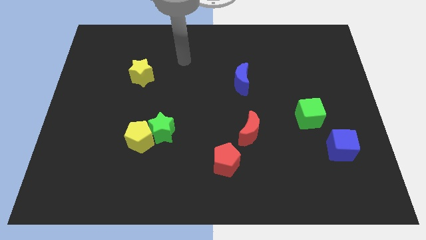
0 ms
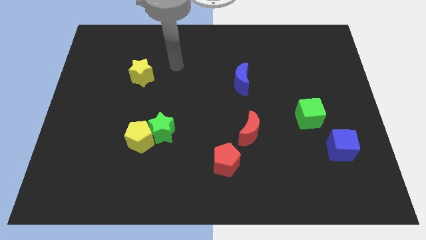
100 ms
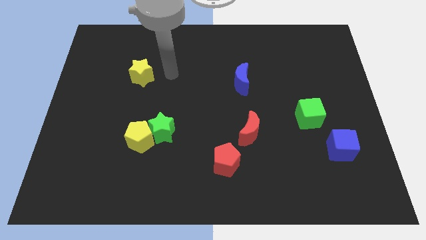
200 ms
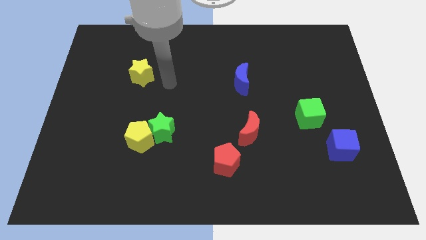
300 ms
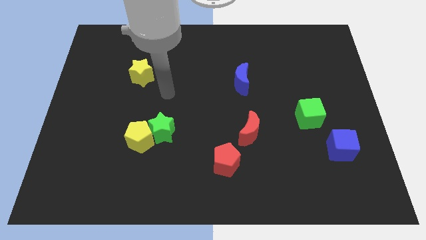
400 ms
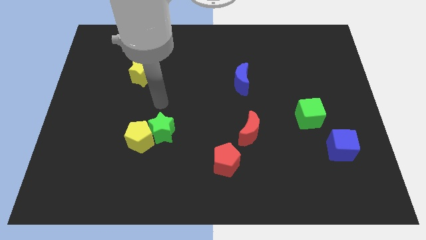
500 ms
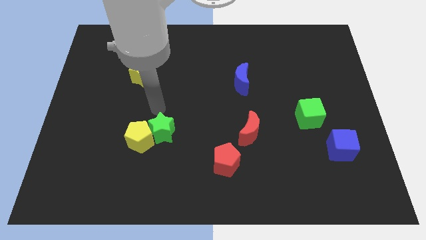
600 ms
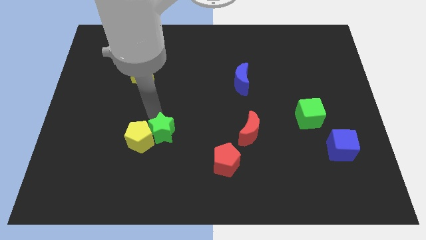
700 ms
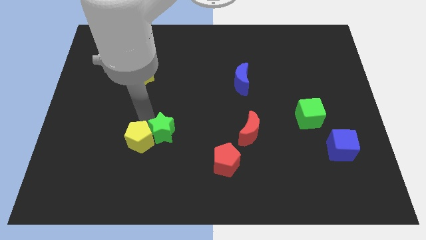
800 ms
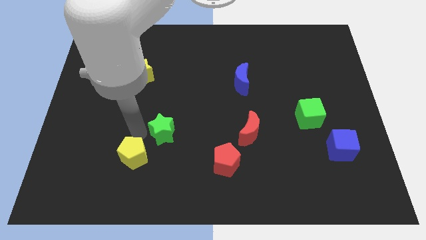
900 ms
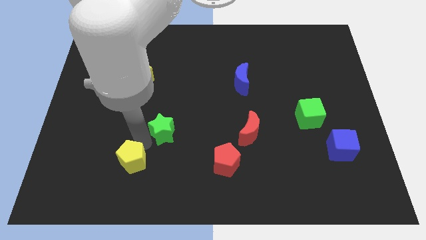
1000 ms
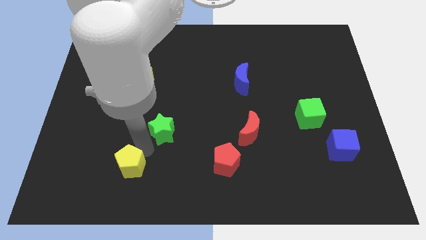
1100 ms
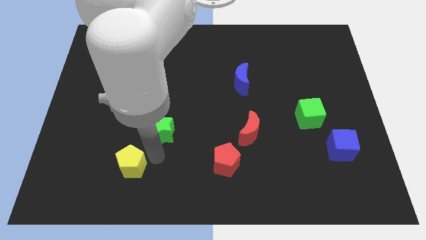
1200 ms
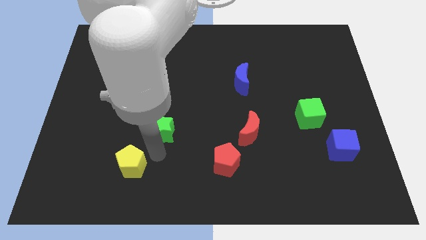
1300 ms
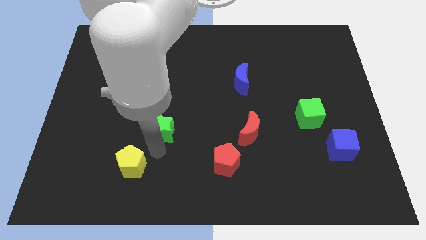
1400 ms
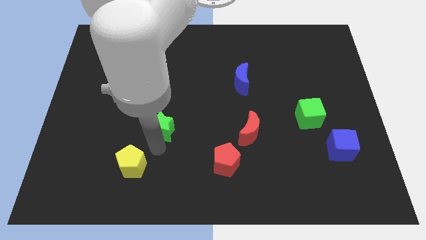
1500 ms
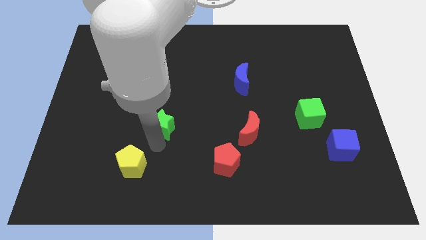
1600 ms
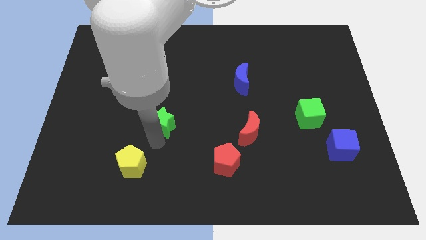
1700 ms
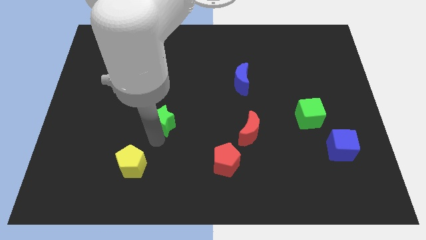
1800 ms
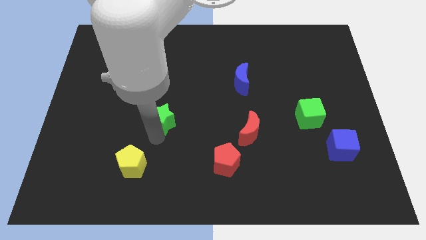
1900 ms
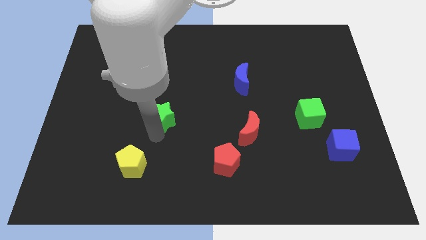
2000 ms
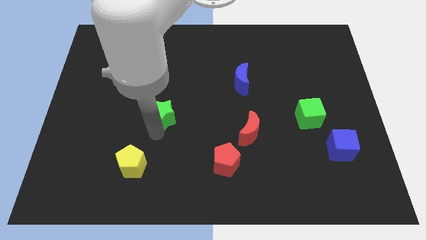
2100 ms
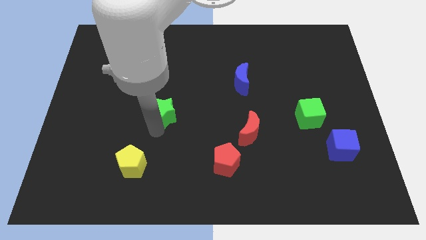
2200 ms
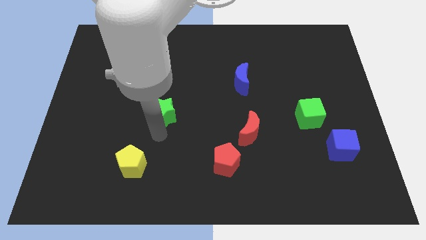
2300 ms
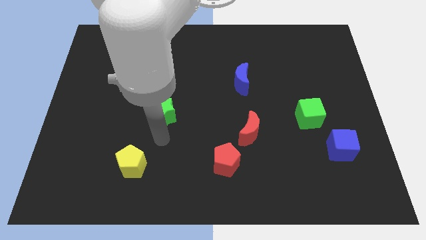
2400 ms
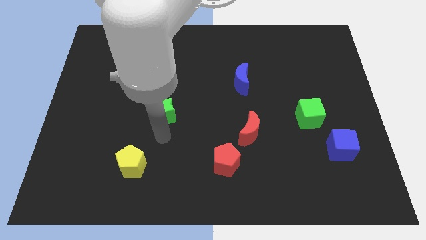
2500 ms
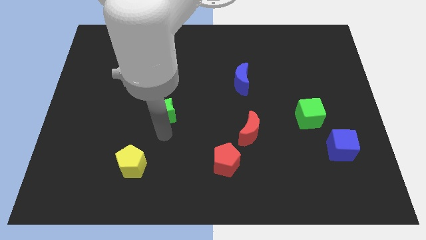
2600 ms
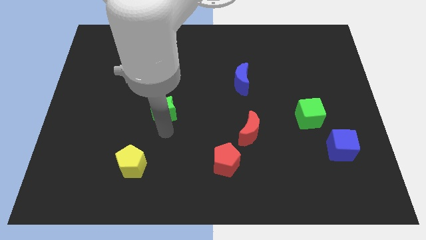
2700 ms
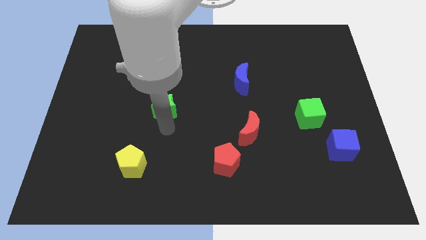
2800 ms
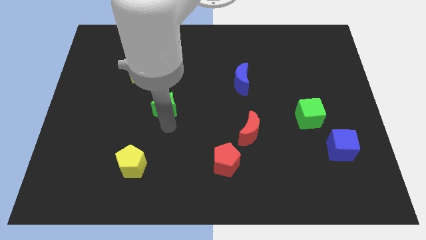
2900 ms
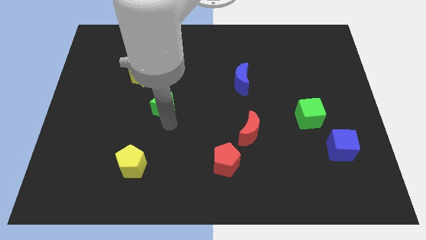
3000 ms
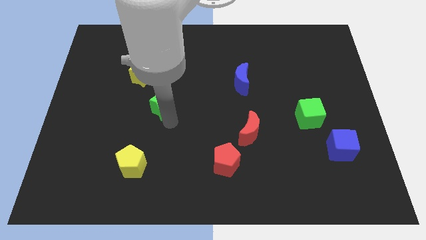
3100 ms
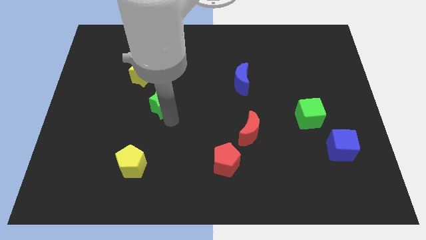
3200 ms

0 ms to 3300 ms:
push the green star up a little

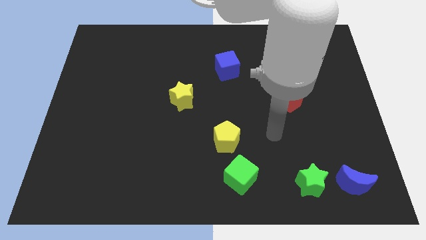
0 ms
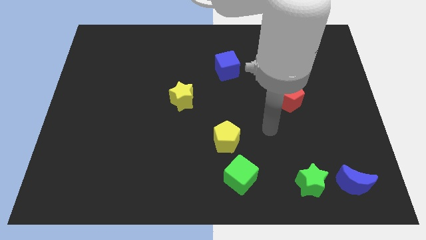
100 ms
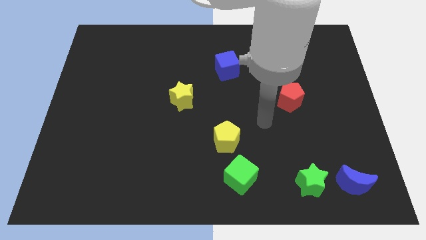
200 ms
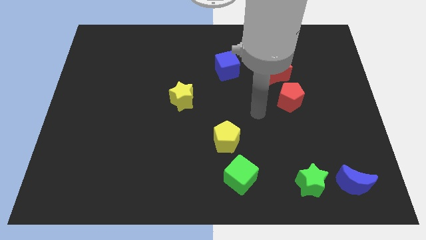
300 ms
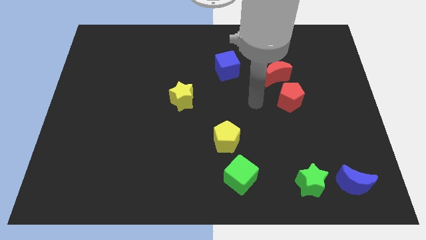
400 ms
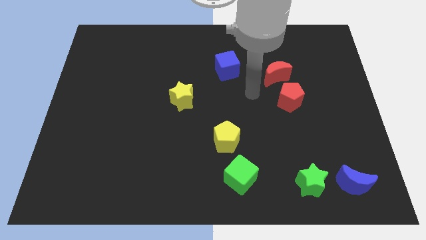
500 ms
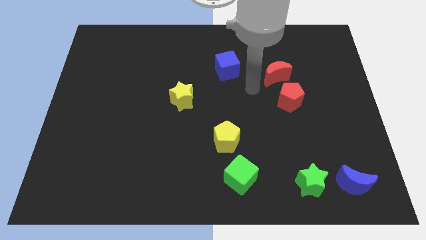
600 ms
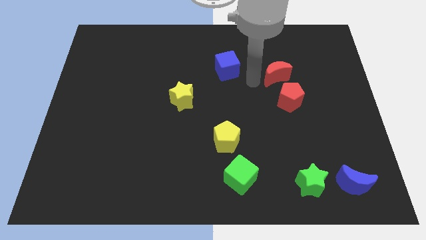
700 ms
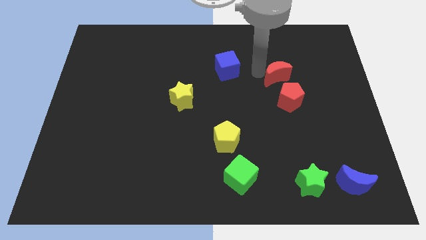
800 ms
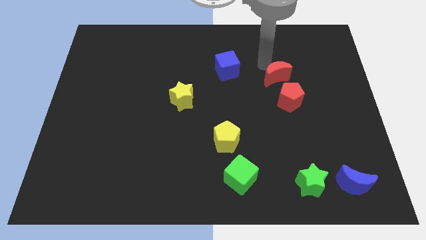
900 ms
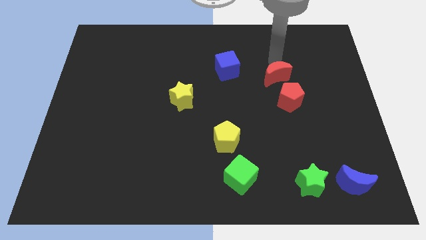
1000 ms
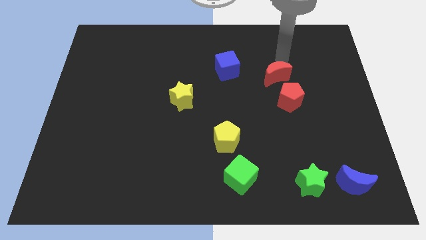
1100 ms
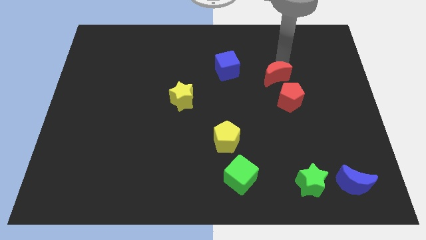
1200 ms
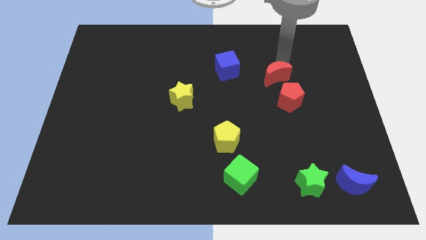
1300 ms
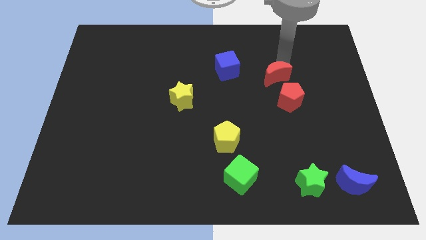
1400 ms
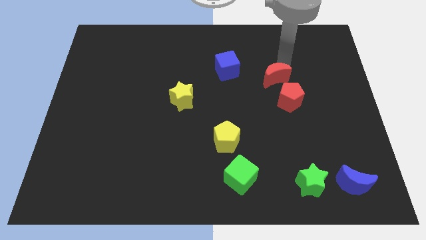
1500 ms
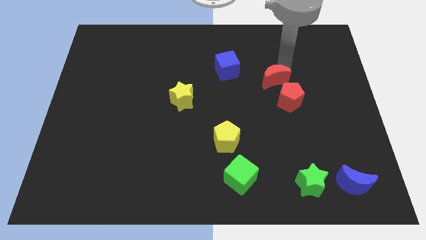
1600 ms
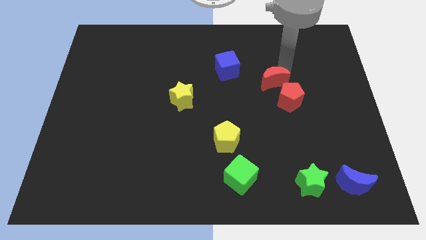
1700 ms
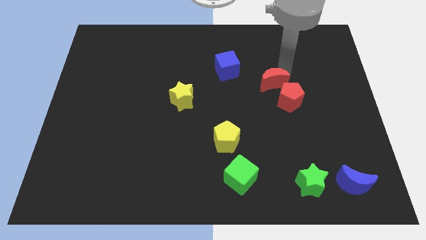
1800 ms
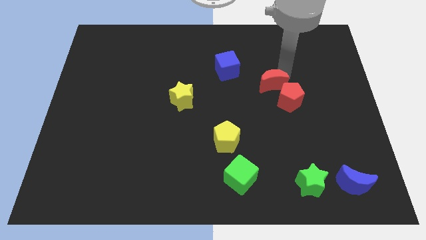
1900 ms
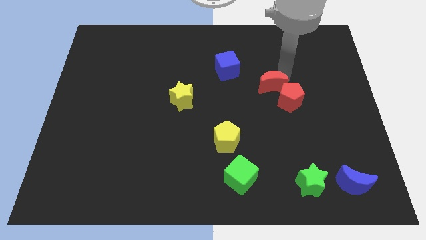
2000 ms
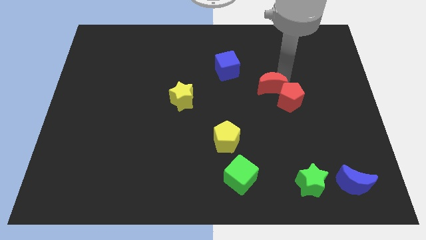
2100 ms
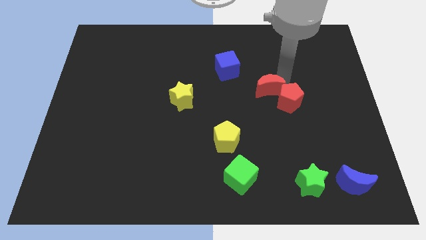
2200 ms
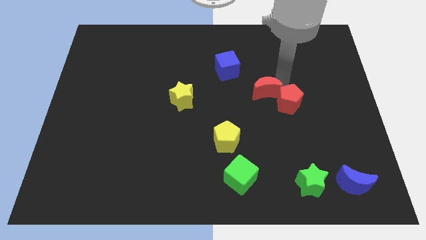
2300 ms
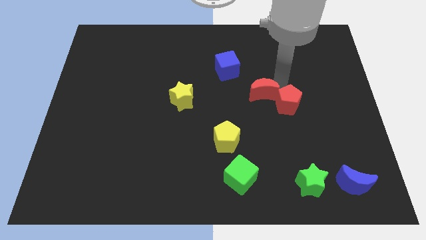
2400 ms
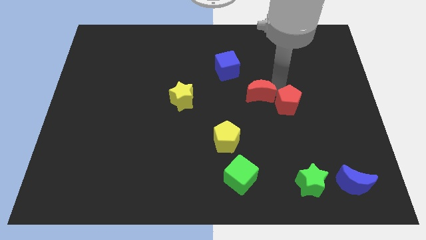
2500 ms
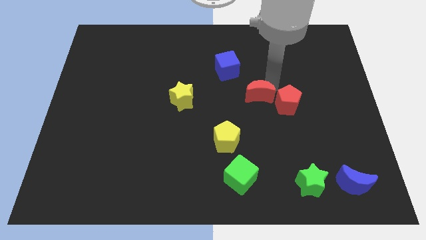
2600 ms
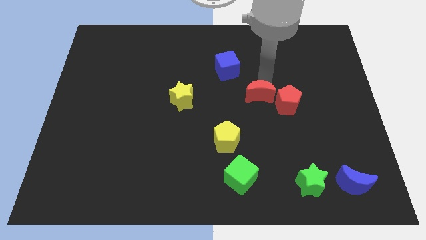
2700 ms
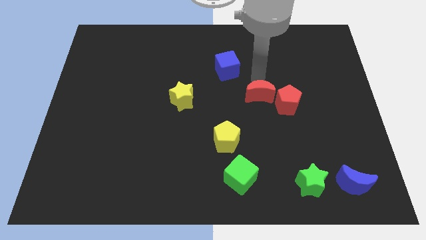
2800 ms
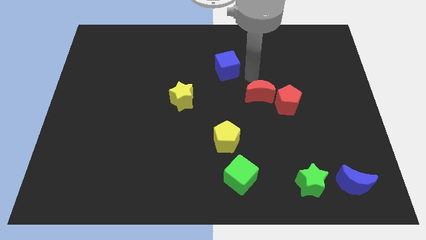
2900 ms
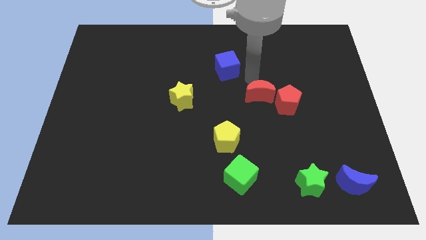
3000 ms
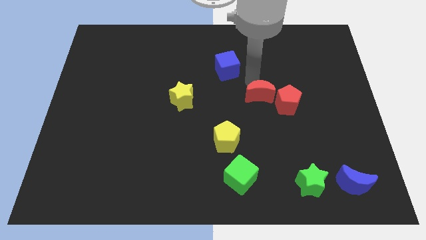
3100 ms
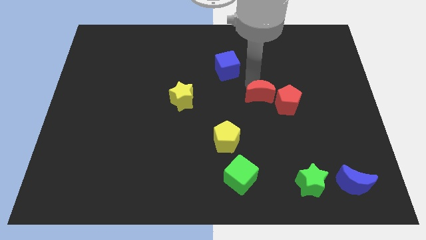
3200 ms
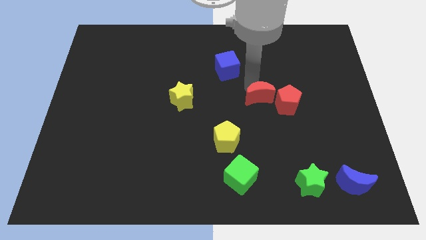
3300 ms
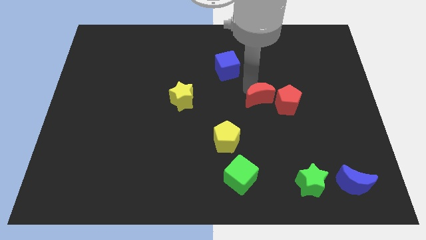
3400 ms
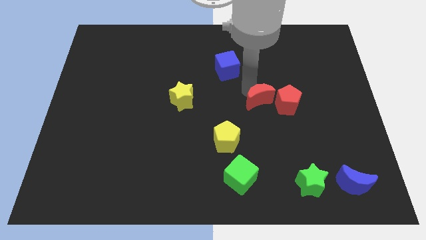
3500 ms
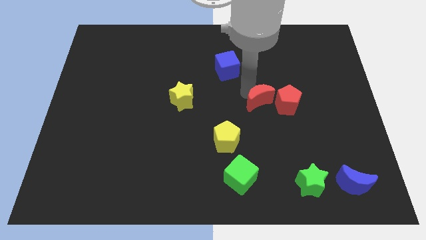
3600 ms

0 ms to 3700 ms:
push the red moon a little bit downwards

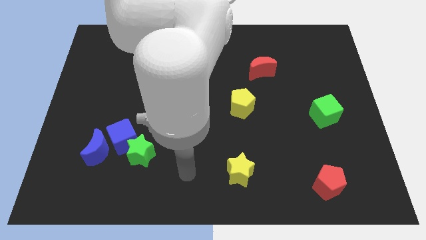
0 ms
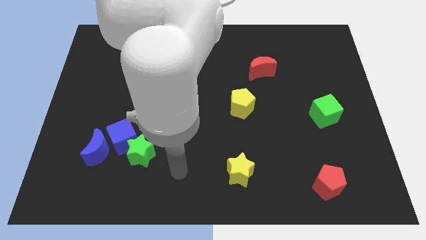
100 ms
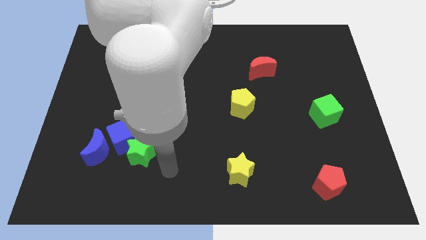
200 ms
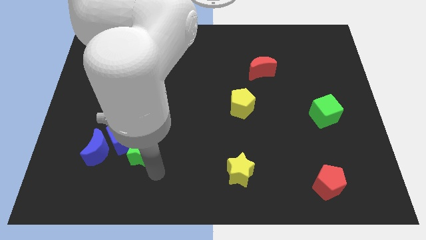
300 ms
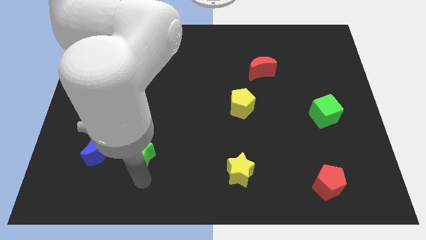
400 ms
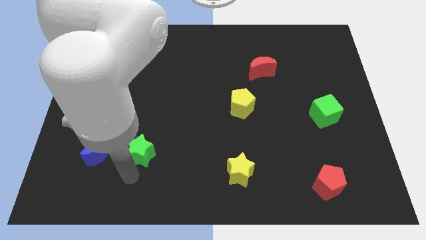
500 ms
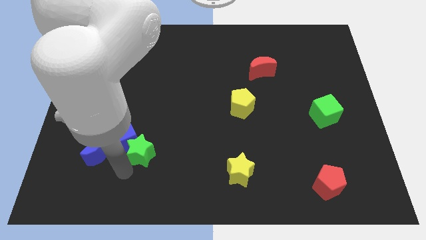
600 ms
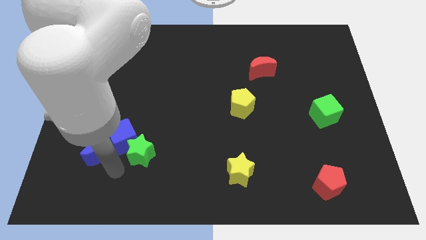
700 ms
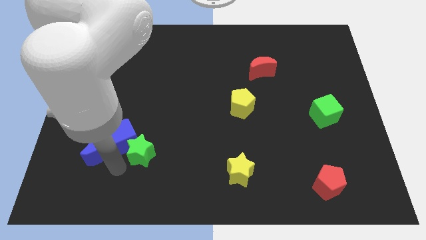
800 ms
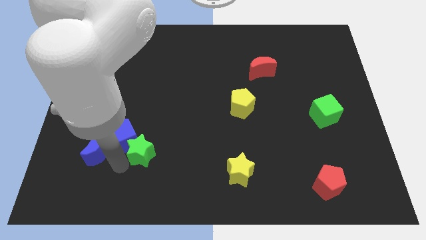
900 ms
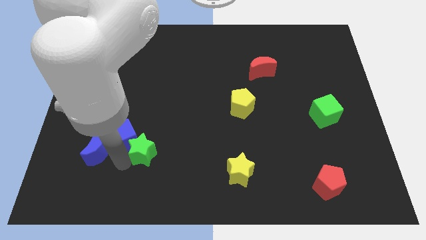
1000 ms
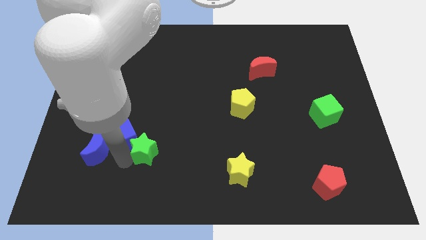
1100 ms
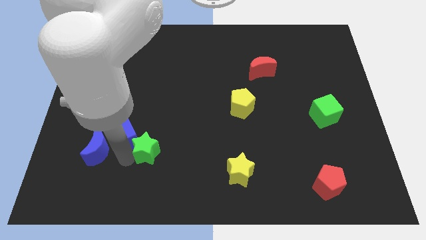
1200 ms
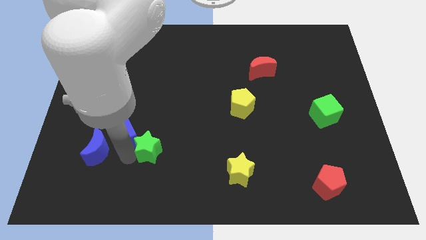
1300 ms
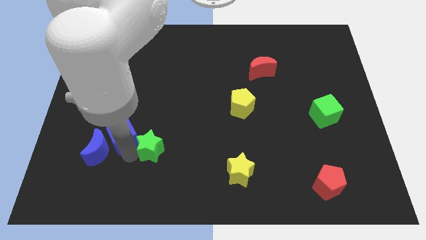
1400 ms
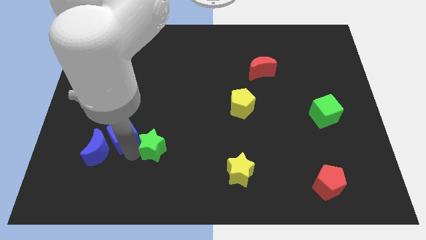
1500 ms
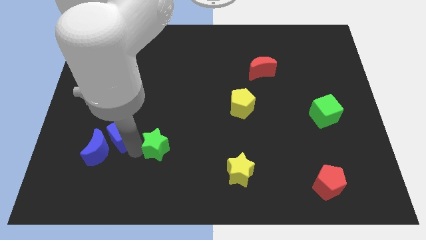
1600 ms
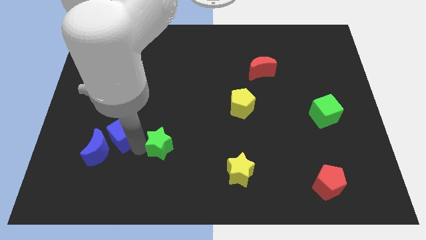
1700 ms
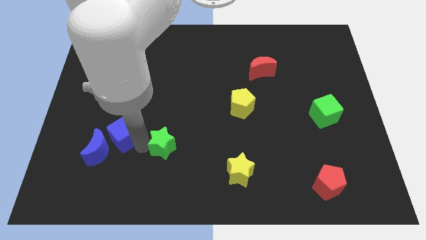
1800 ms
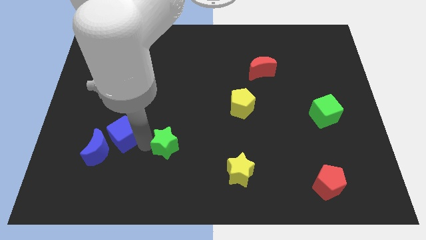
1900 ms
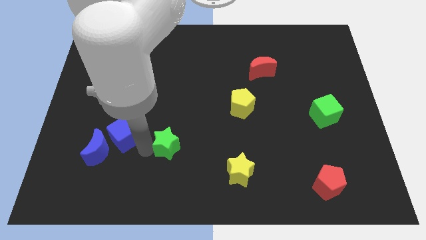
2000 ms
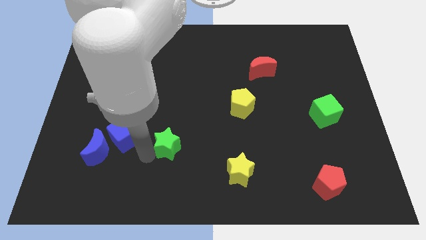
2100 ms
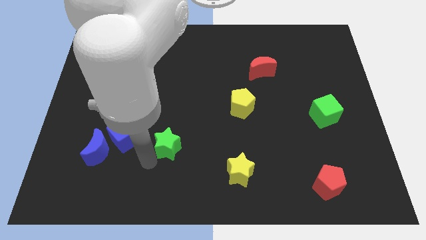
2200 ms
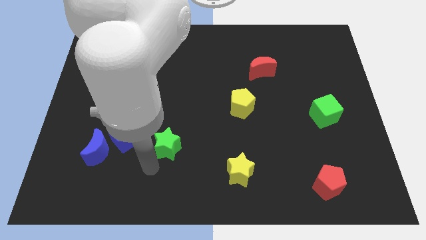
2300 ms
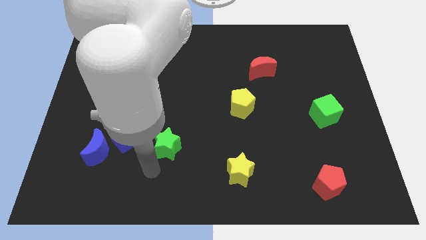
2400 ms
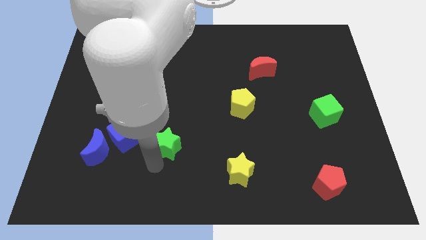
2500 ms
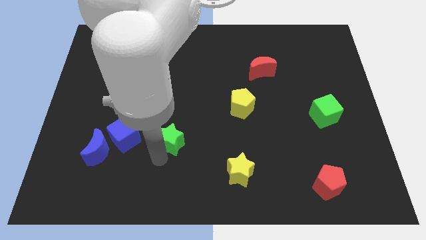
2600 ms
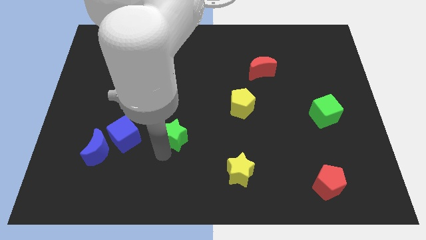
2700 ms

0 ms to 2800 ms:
slightly slide the green star upwards and right diagonally
